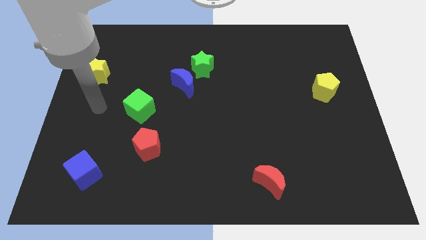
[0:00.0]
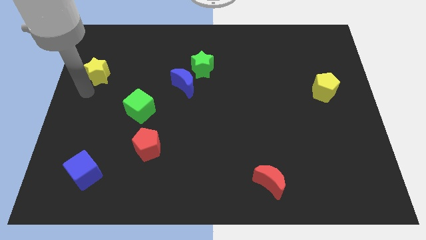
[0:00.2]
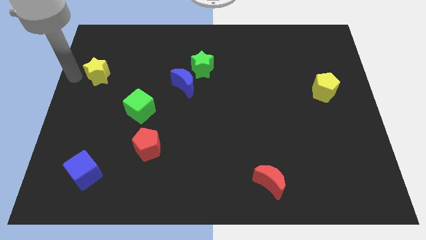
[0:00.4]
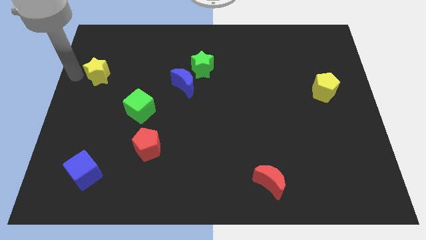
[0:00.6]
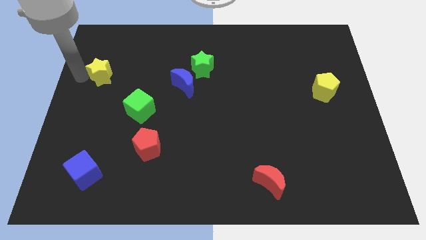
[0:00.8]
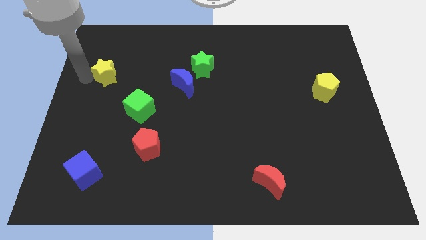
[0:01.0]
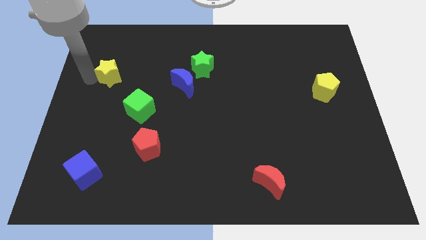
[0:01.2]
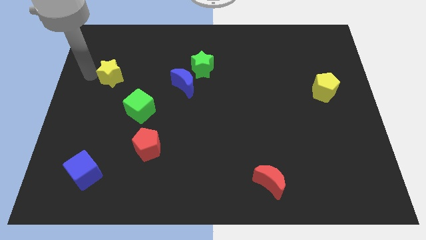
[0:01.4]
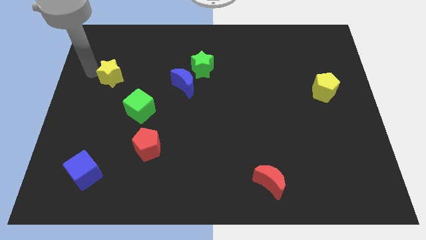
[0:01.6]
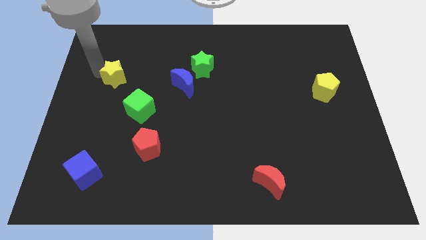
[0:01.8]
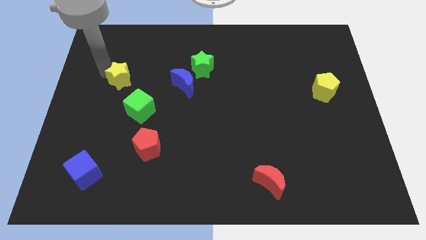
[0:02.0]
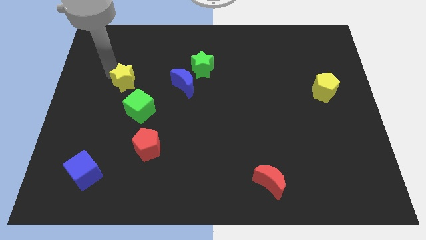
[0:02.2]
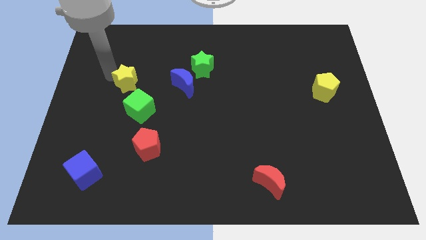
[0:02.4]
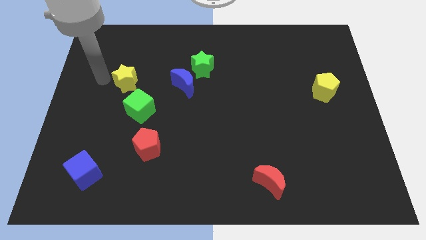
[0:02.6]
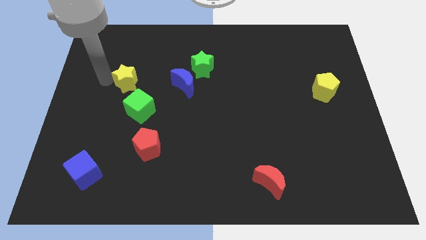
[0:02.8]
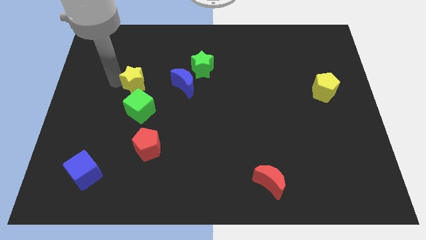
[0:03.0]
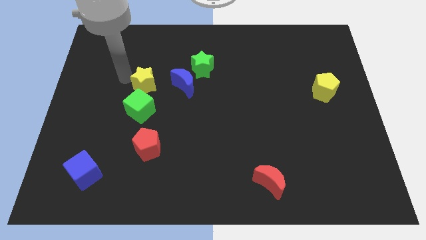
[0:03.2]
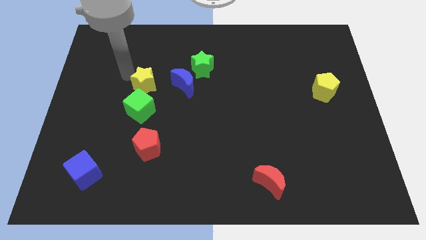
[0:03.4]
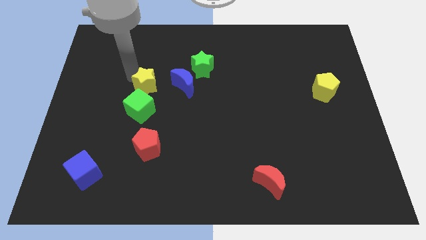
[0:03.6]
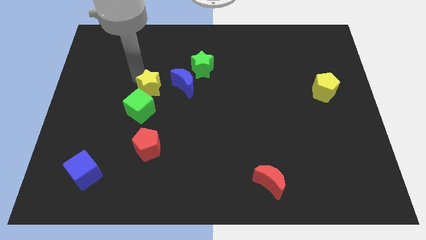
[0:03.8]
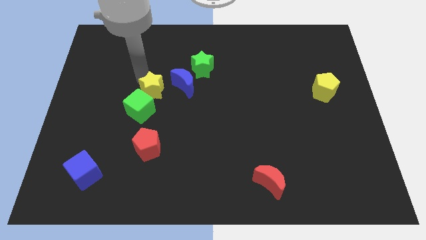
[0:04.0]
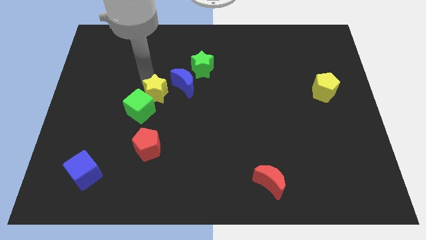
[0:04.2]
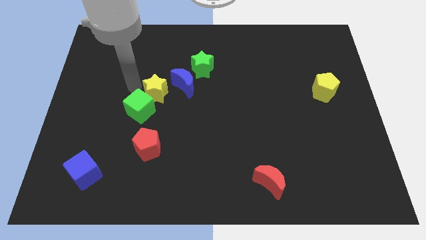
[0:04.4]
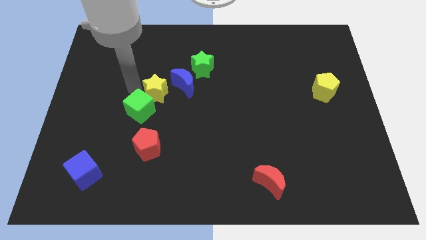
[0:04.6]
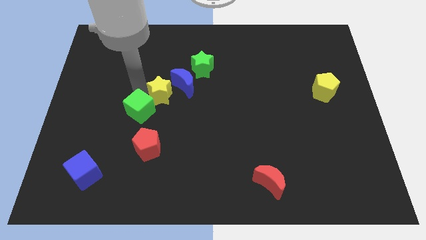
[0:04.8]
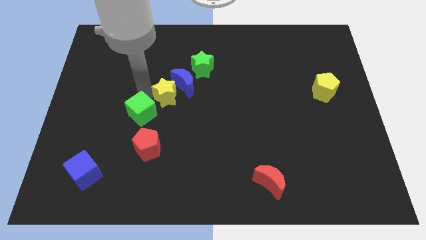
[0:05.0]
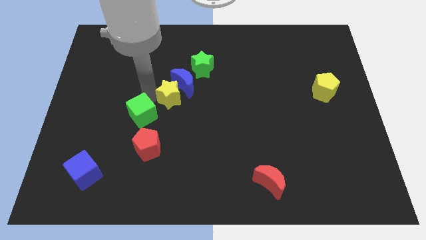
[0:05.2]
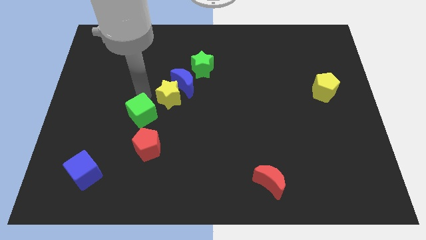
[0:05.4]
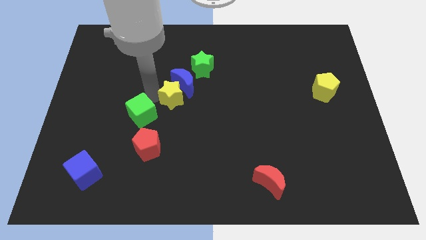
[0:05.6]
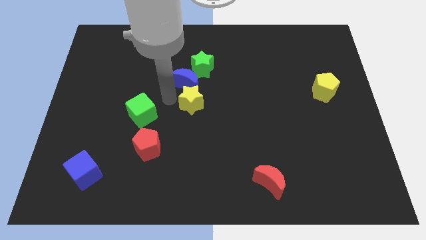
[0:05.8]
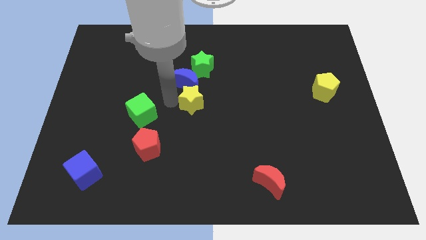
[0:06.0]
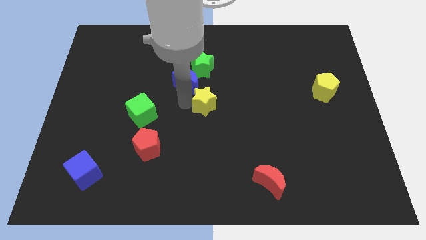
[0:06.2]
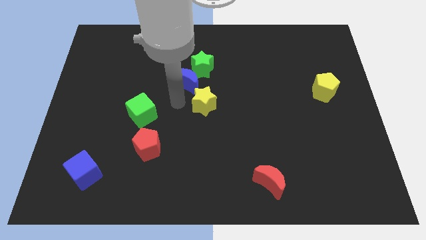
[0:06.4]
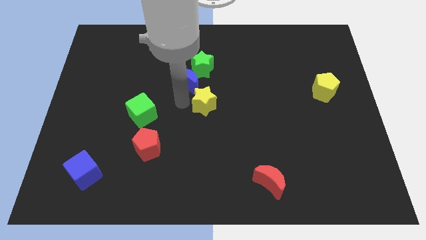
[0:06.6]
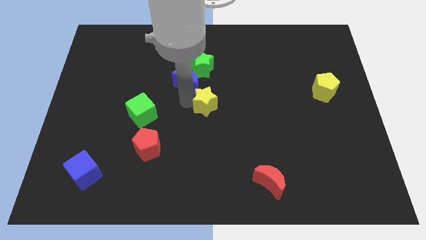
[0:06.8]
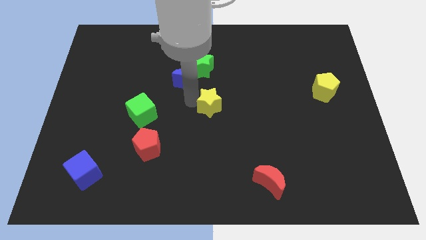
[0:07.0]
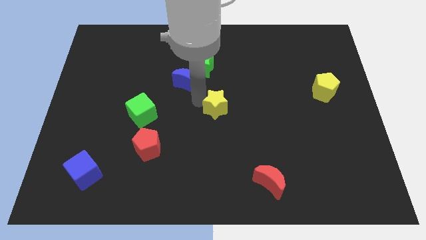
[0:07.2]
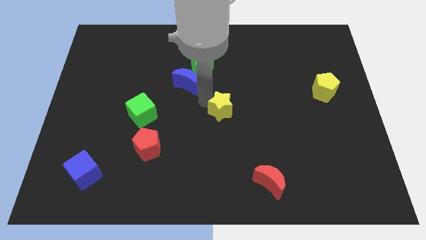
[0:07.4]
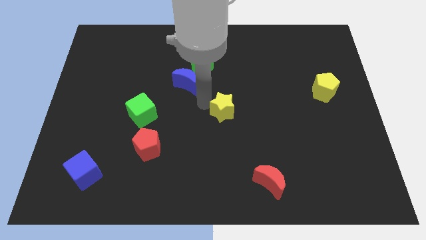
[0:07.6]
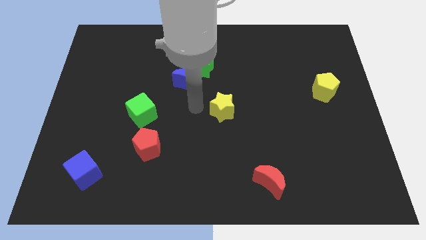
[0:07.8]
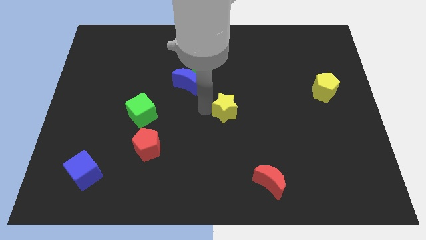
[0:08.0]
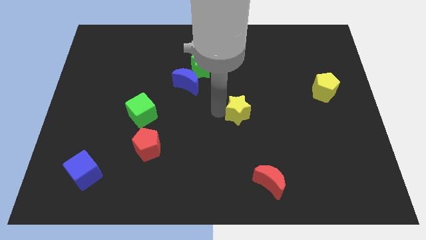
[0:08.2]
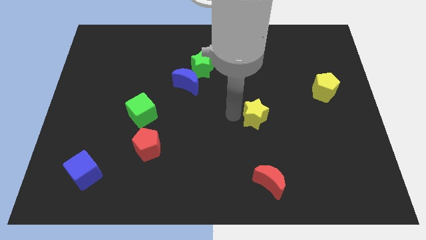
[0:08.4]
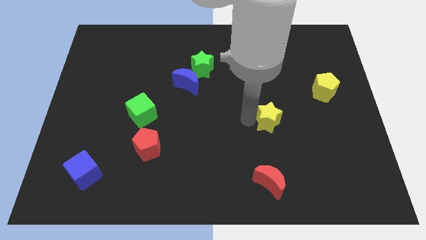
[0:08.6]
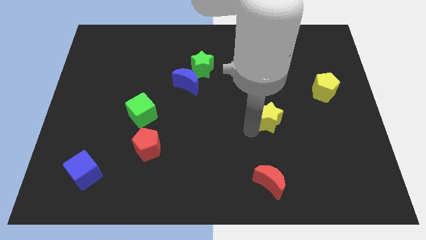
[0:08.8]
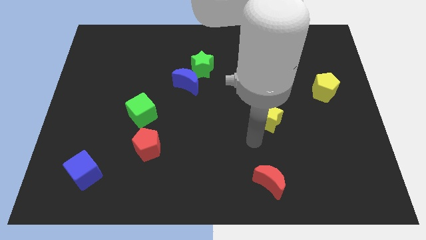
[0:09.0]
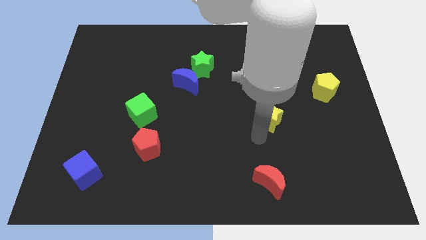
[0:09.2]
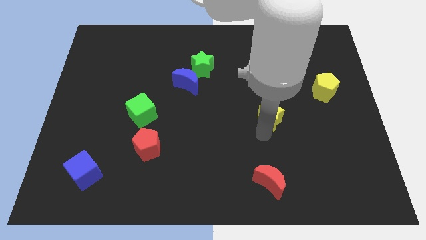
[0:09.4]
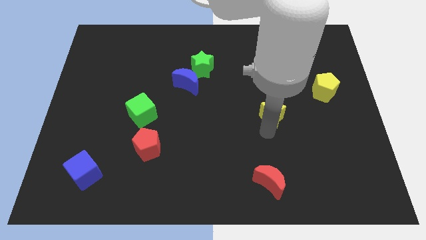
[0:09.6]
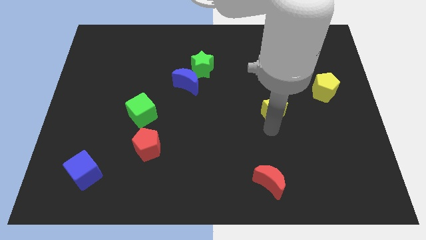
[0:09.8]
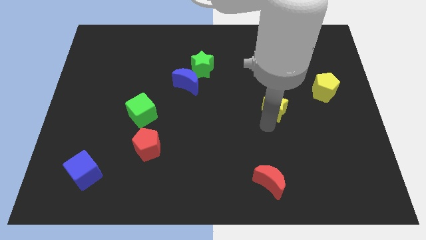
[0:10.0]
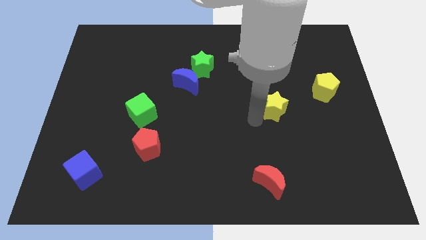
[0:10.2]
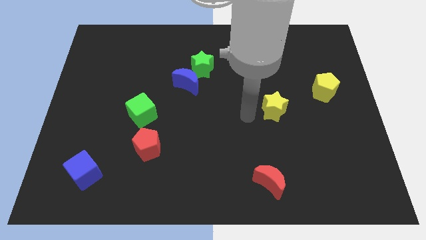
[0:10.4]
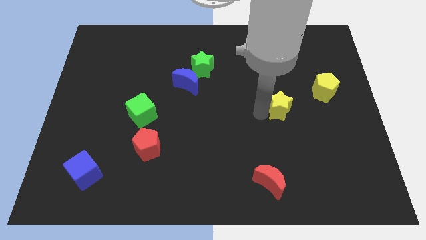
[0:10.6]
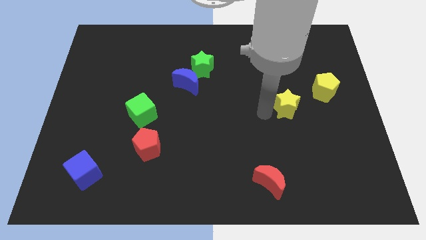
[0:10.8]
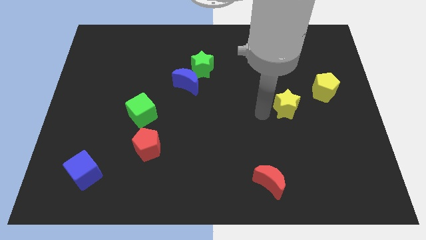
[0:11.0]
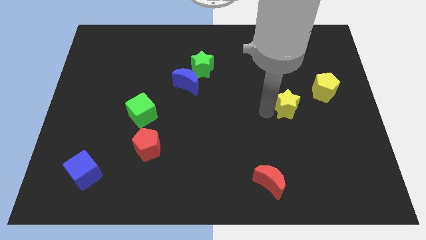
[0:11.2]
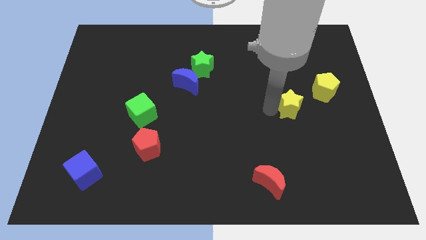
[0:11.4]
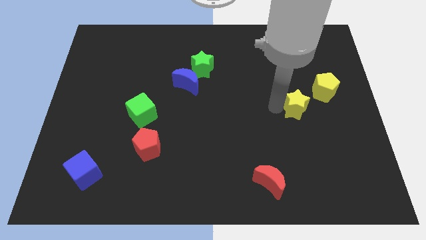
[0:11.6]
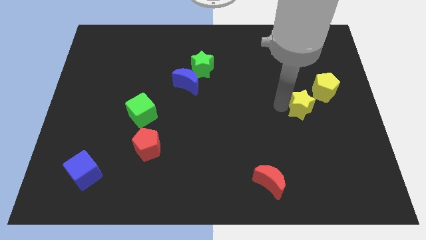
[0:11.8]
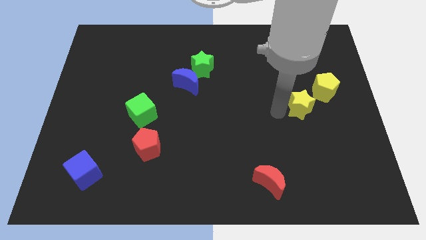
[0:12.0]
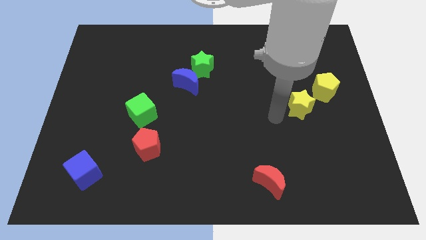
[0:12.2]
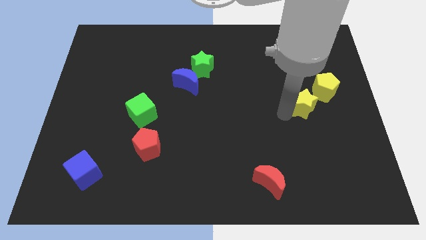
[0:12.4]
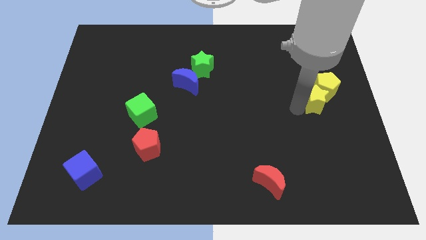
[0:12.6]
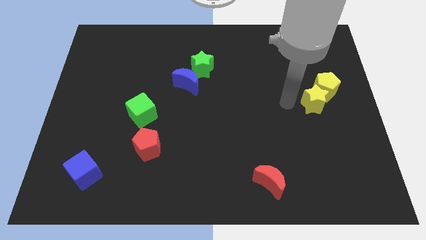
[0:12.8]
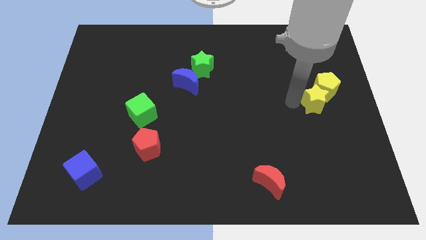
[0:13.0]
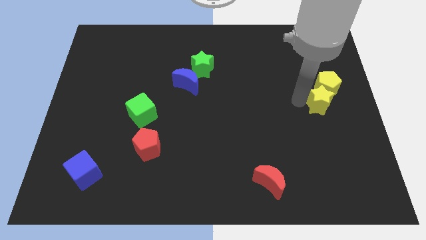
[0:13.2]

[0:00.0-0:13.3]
slide the yellow star to the right side of the board
